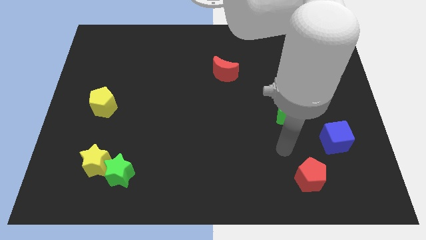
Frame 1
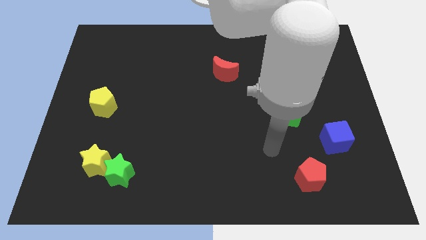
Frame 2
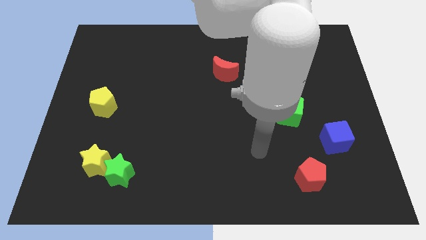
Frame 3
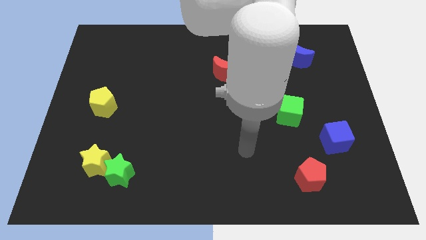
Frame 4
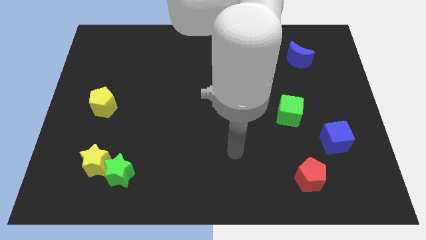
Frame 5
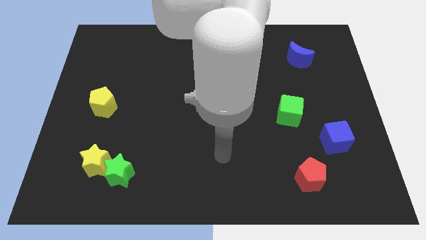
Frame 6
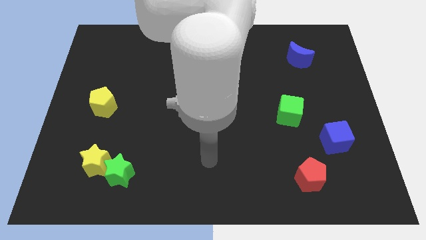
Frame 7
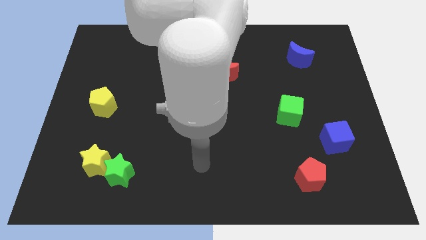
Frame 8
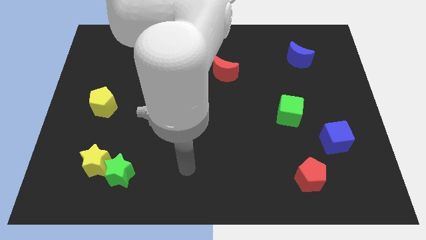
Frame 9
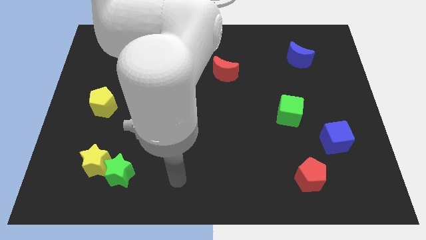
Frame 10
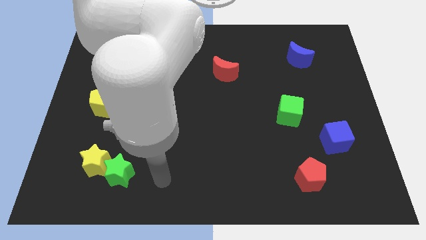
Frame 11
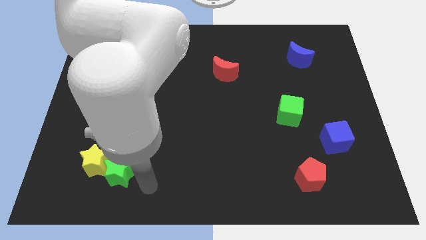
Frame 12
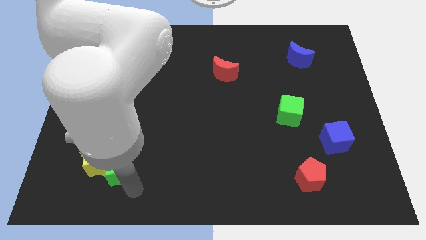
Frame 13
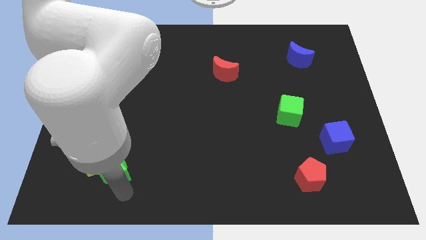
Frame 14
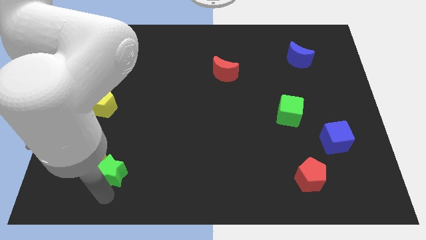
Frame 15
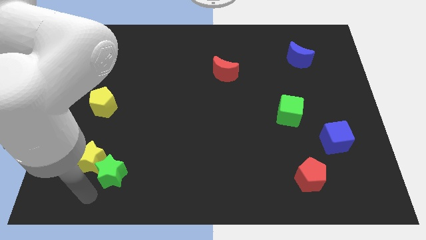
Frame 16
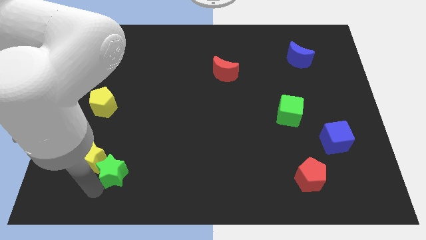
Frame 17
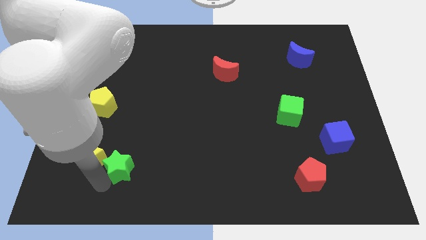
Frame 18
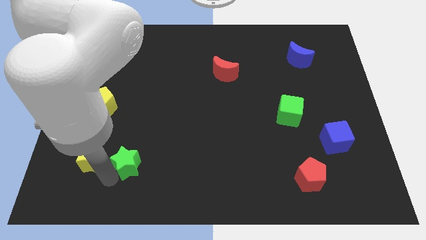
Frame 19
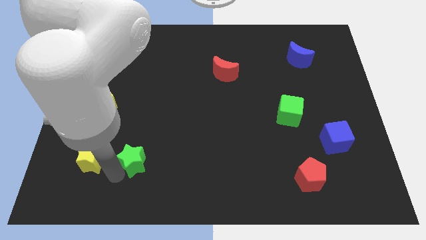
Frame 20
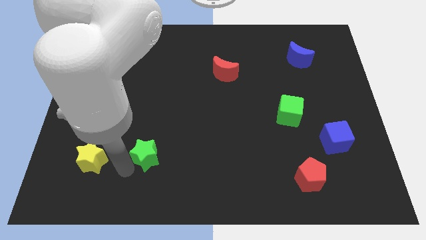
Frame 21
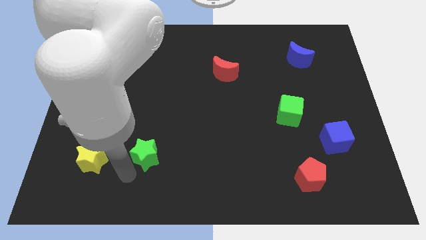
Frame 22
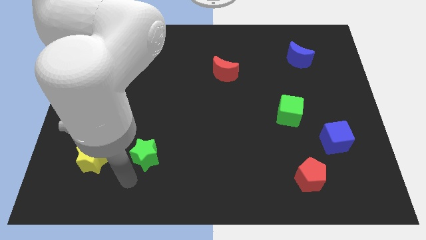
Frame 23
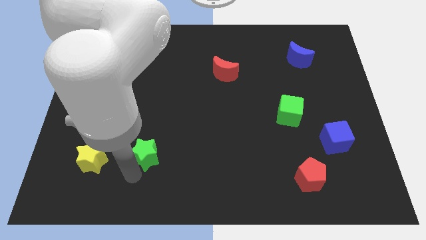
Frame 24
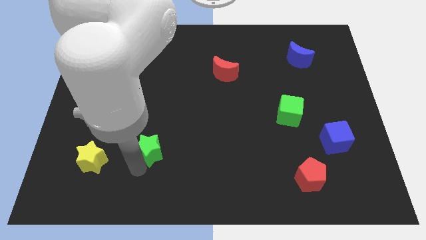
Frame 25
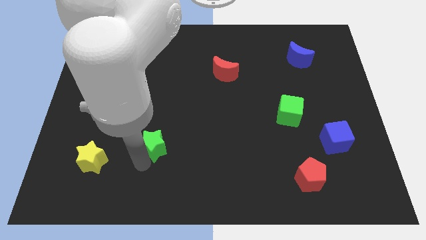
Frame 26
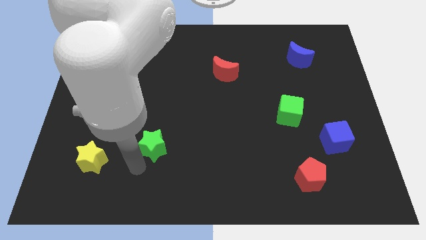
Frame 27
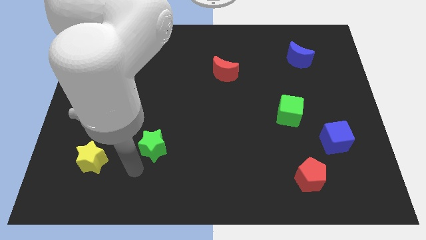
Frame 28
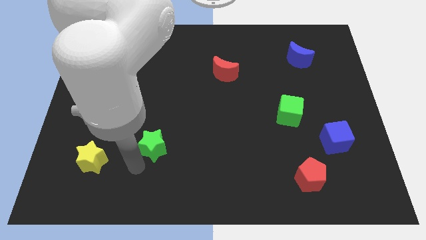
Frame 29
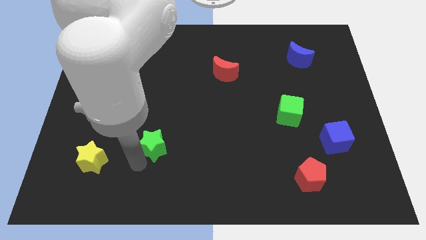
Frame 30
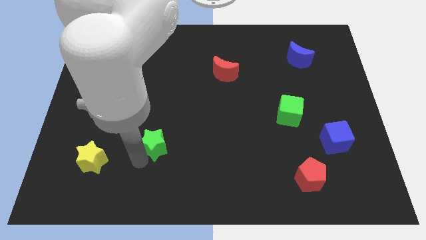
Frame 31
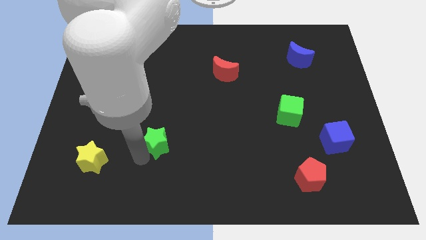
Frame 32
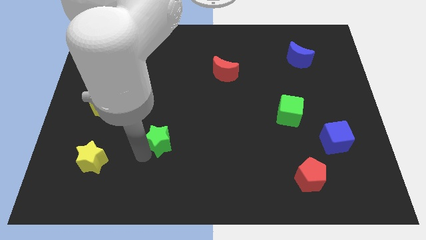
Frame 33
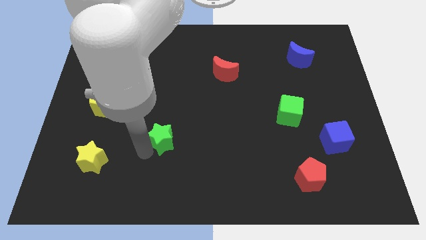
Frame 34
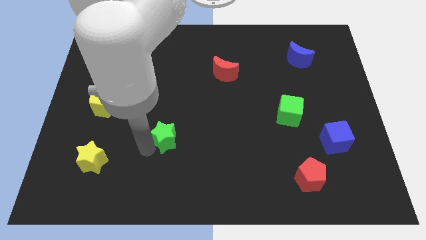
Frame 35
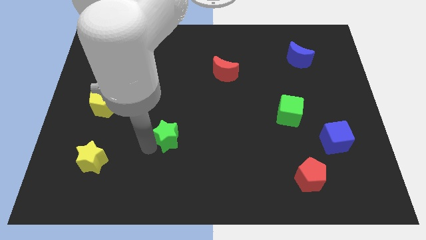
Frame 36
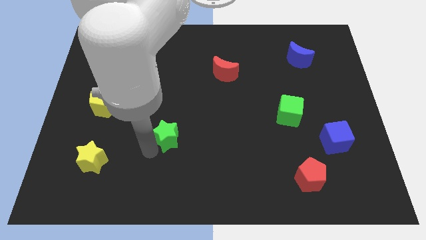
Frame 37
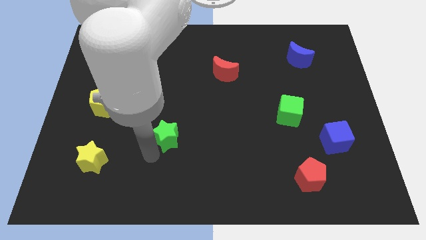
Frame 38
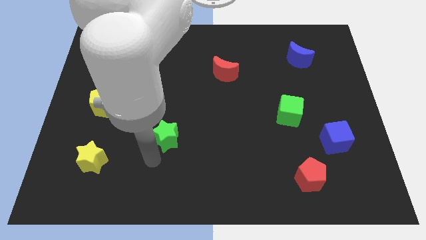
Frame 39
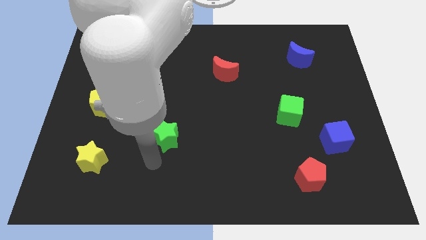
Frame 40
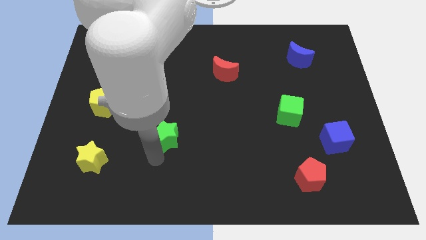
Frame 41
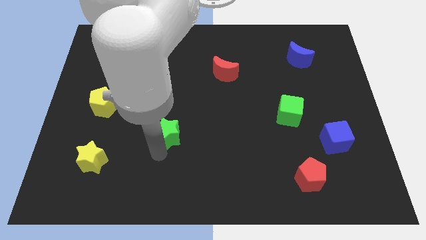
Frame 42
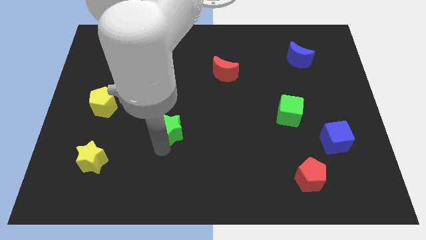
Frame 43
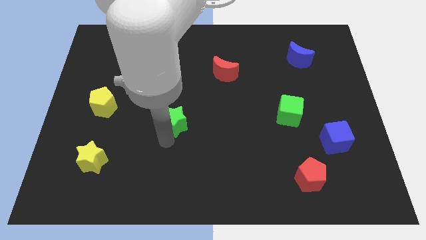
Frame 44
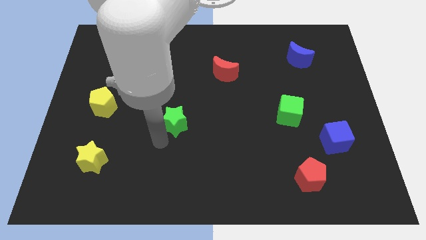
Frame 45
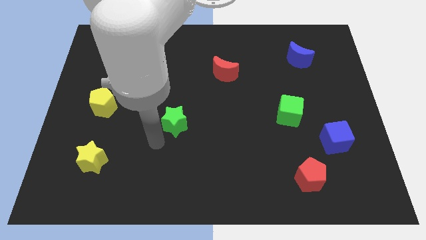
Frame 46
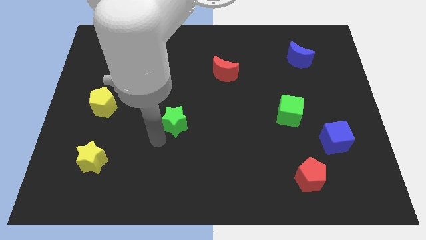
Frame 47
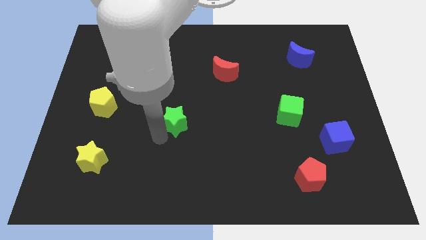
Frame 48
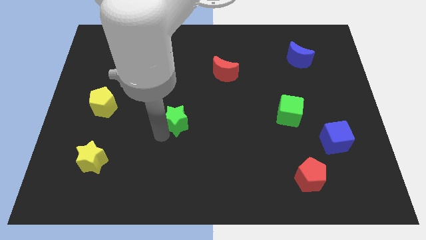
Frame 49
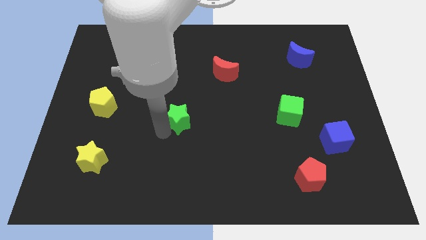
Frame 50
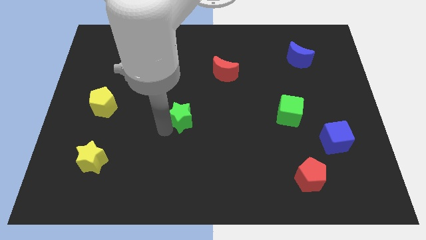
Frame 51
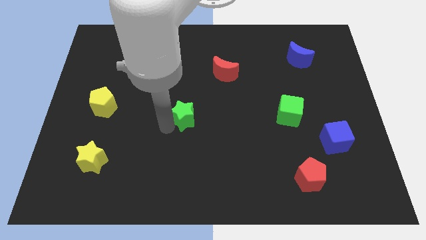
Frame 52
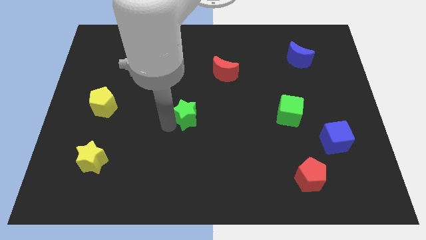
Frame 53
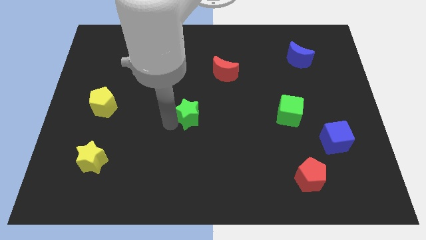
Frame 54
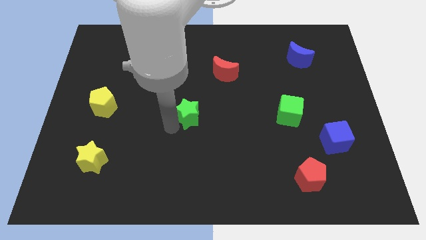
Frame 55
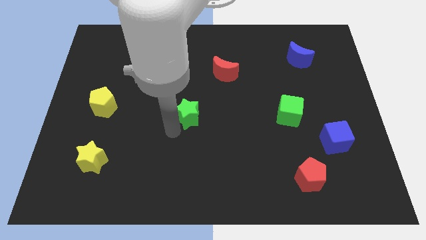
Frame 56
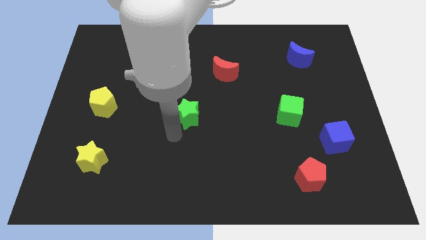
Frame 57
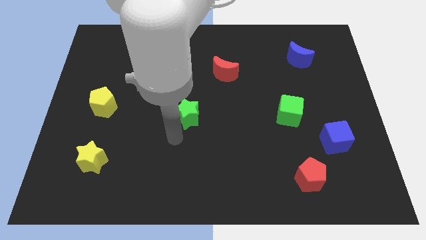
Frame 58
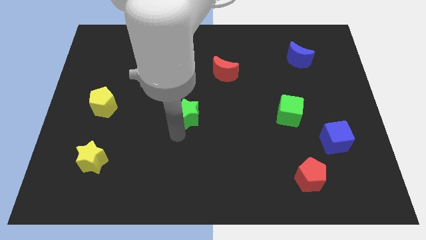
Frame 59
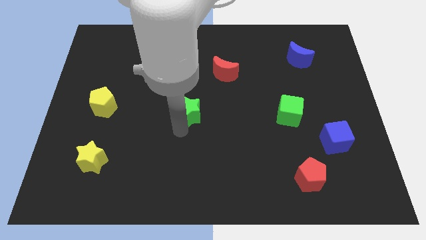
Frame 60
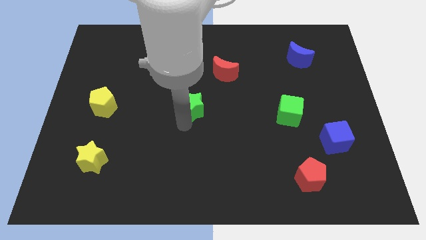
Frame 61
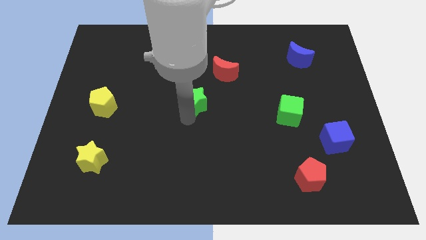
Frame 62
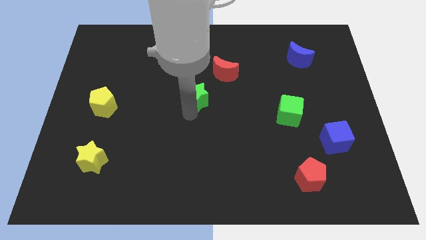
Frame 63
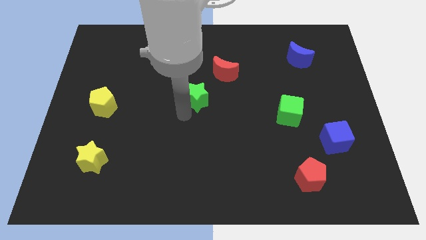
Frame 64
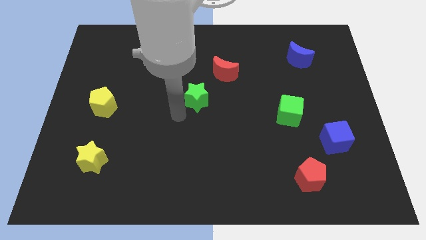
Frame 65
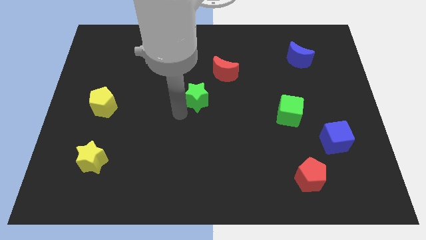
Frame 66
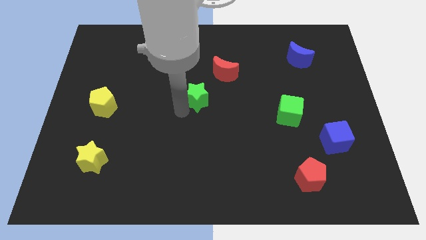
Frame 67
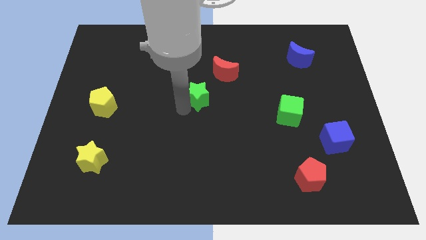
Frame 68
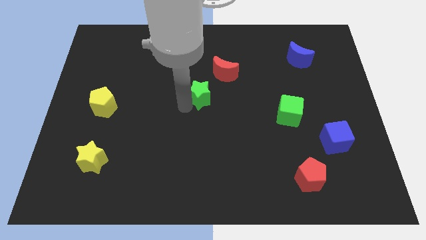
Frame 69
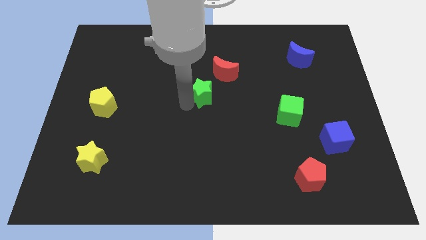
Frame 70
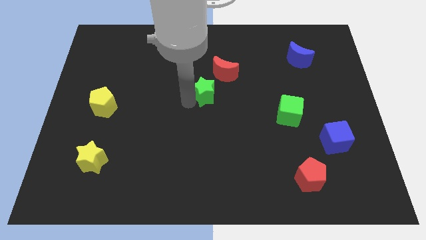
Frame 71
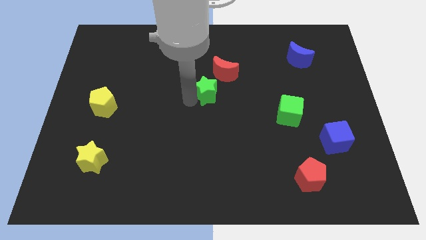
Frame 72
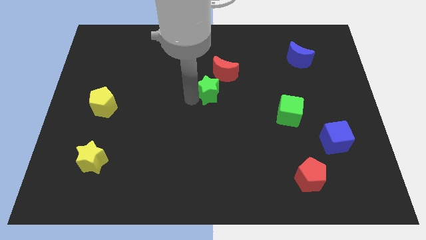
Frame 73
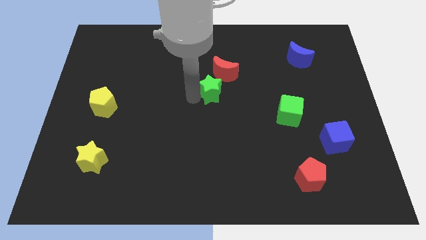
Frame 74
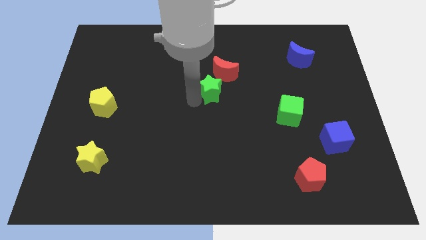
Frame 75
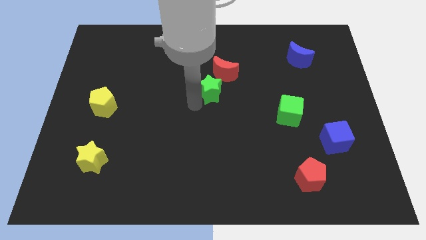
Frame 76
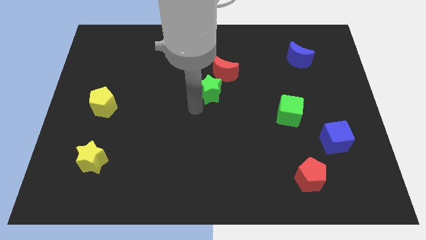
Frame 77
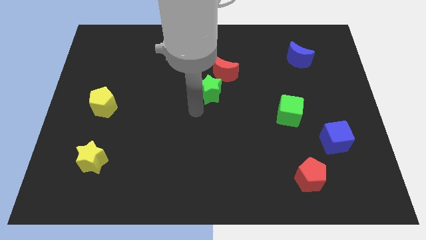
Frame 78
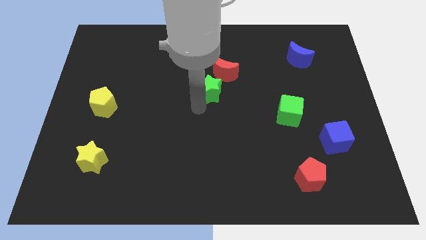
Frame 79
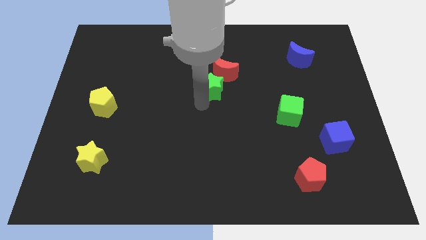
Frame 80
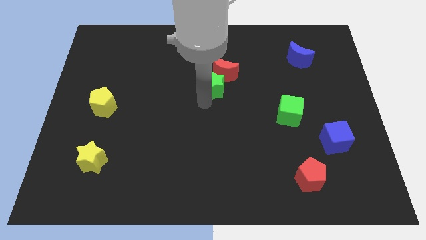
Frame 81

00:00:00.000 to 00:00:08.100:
push the green star close to the red moon
